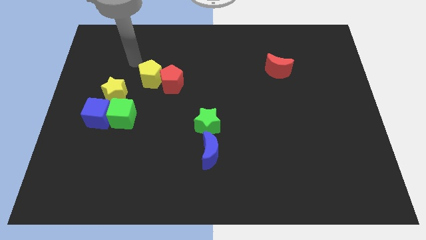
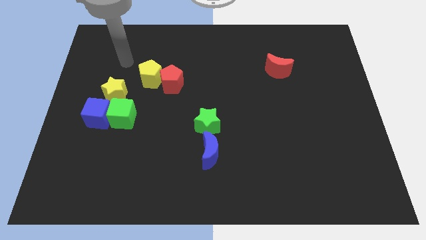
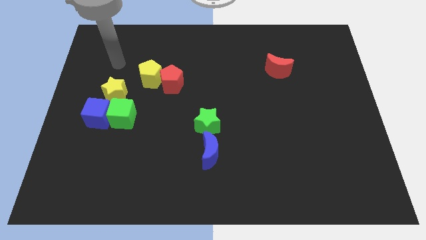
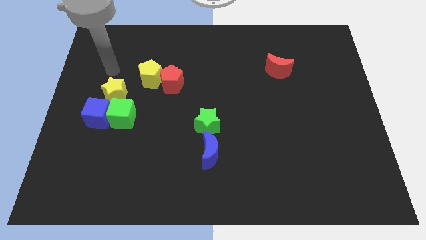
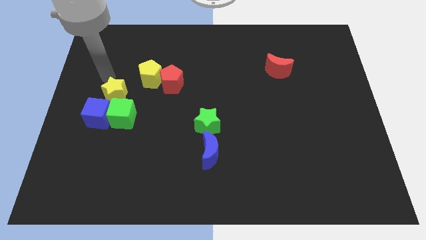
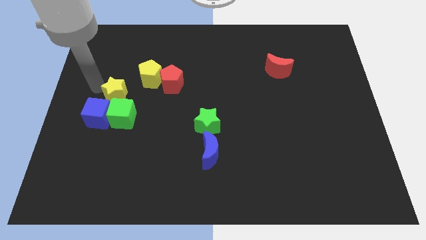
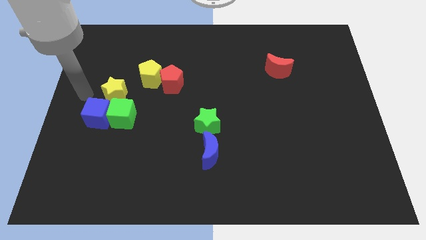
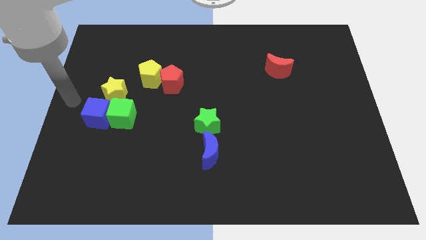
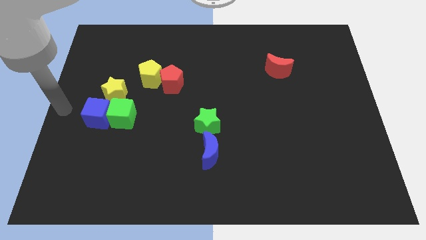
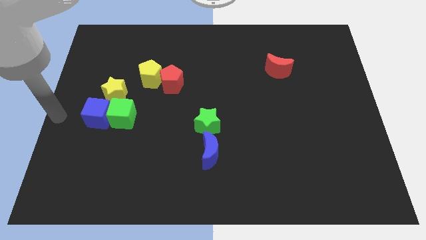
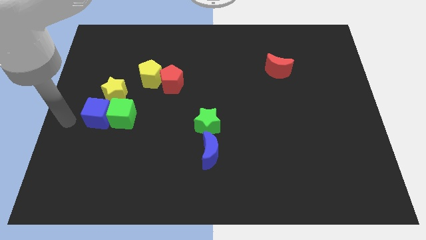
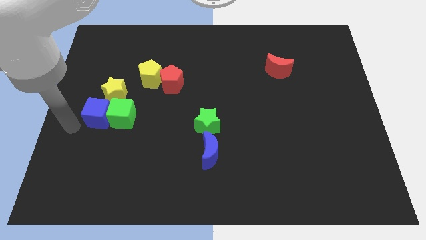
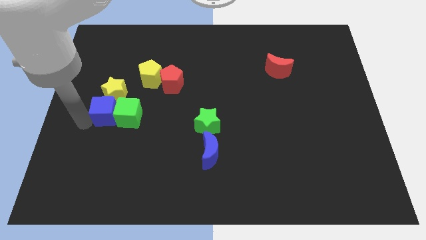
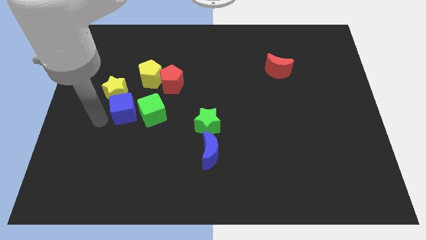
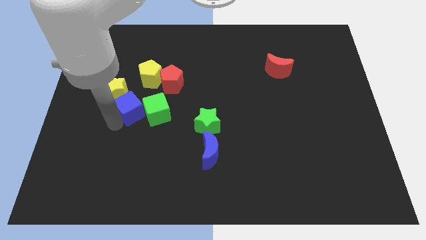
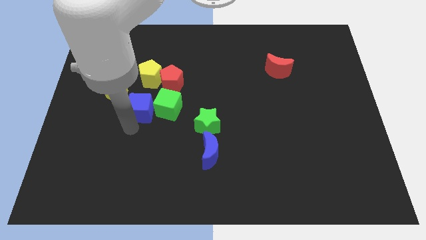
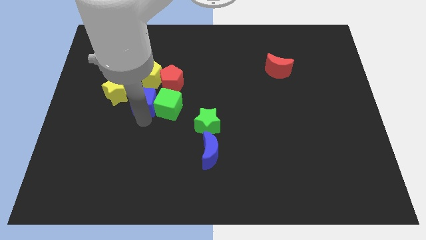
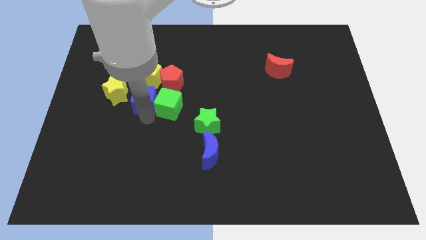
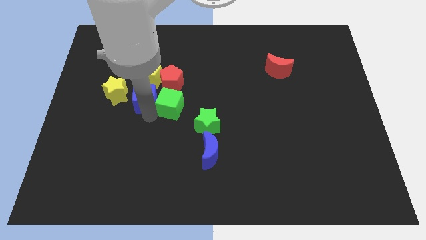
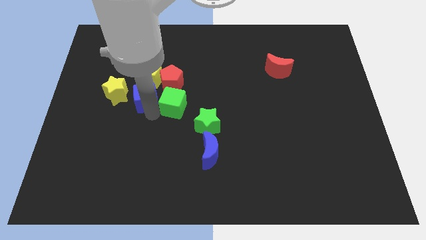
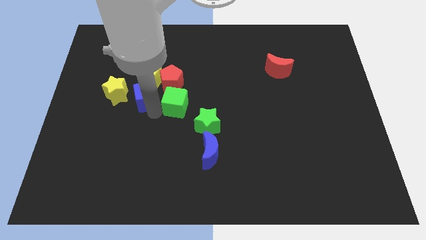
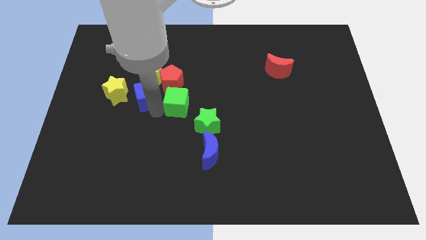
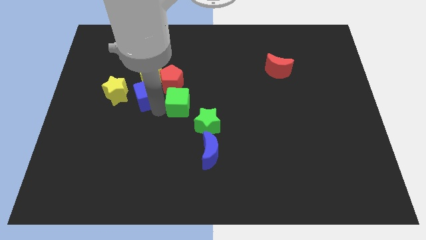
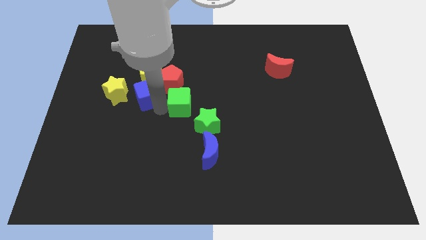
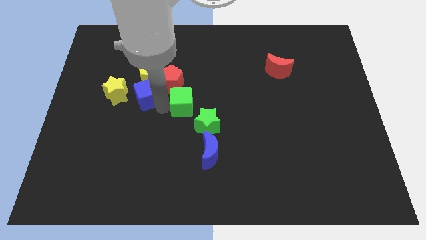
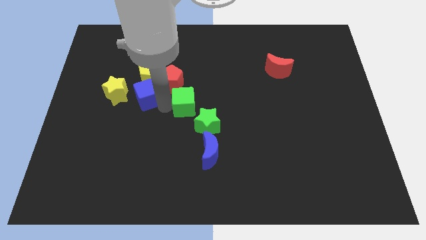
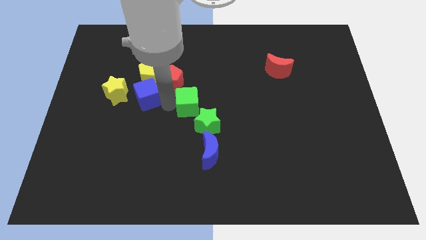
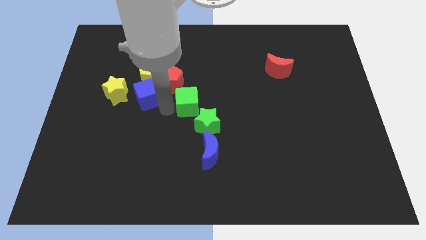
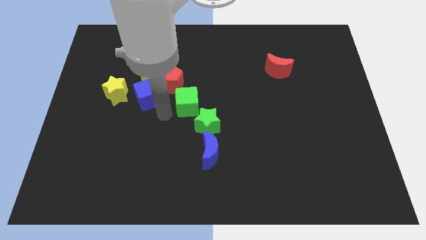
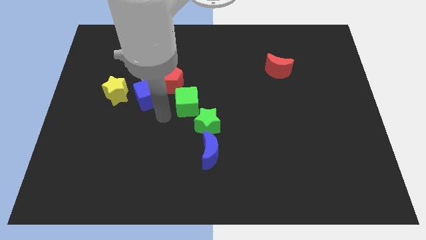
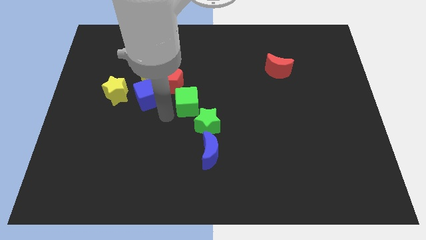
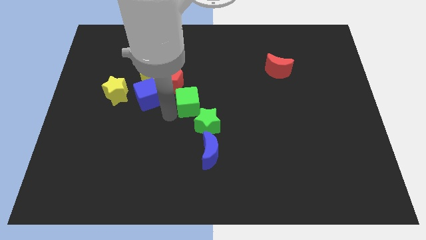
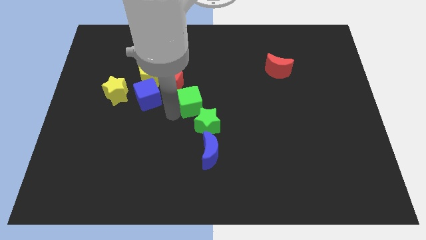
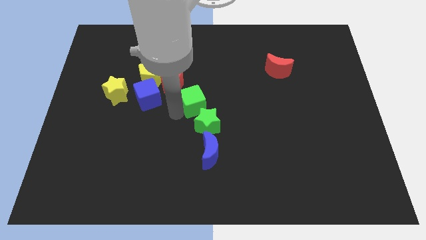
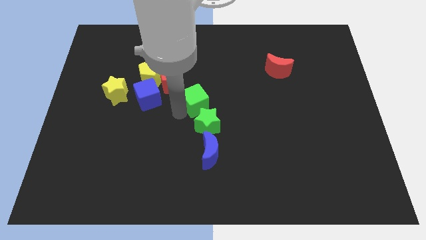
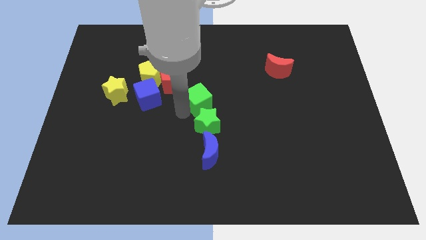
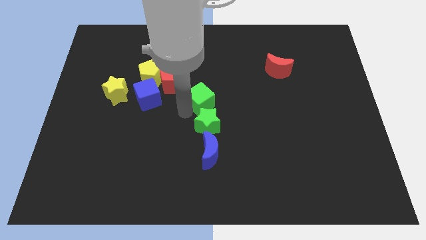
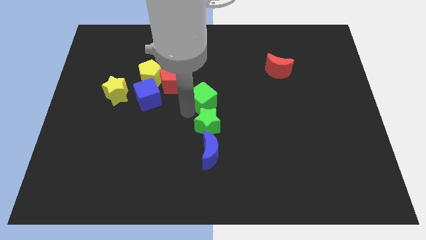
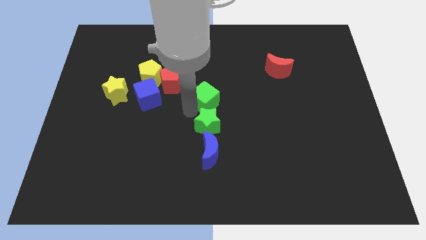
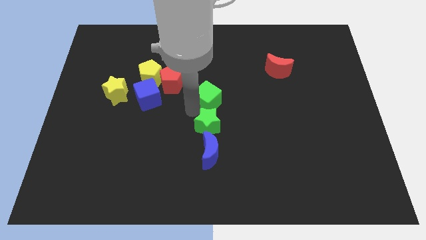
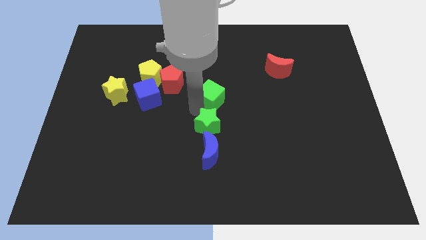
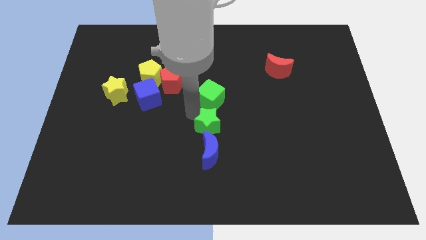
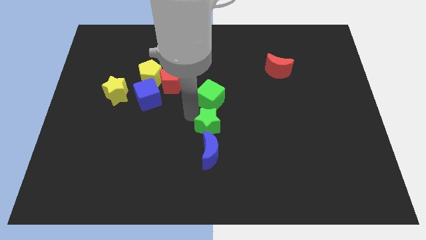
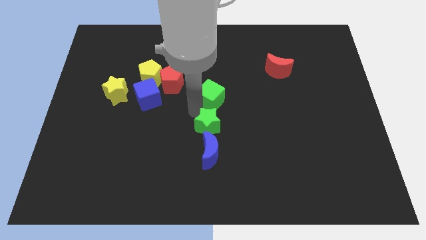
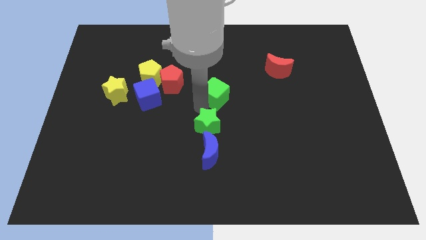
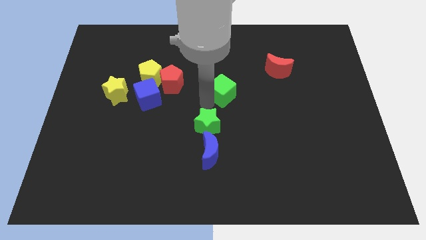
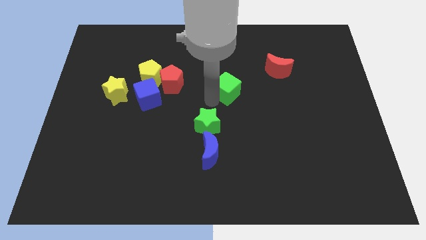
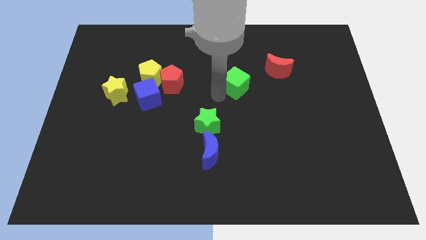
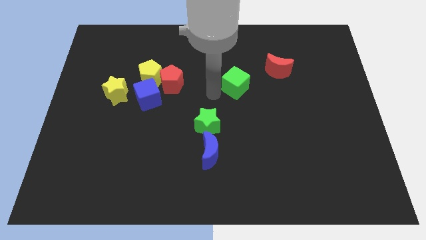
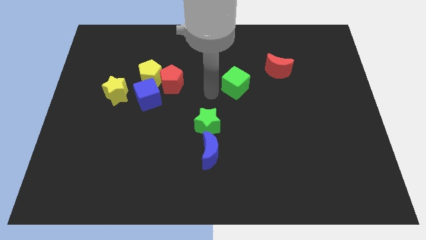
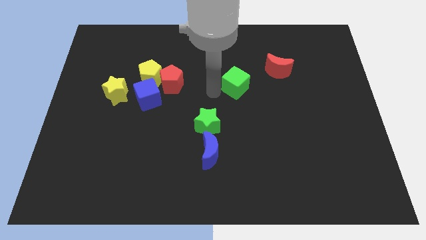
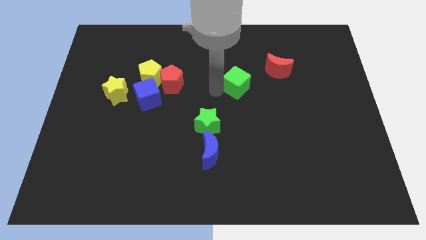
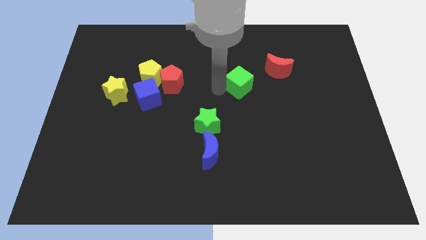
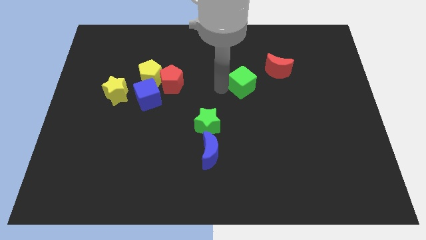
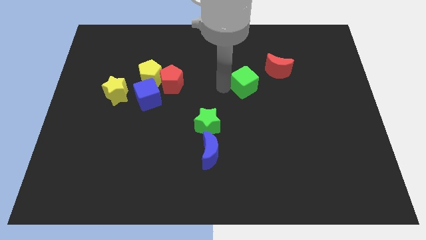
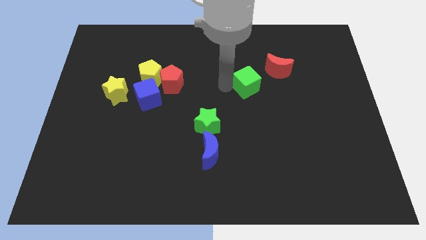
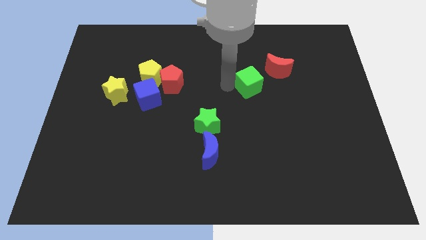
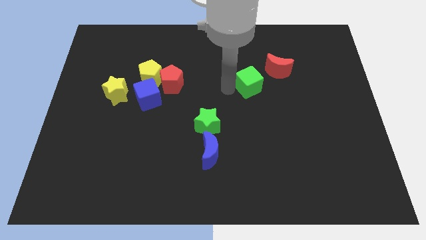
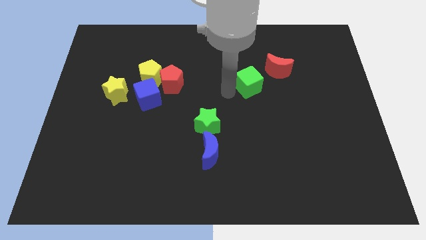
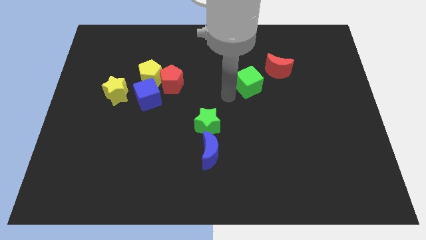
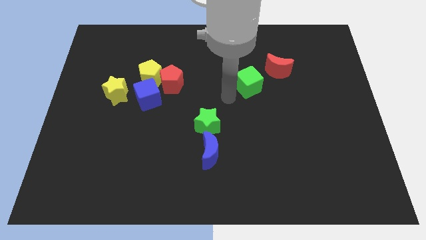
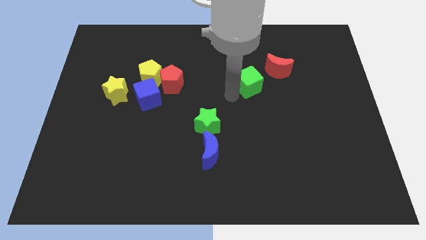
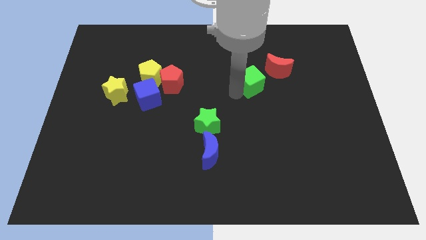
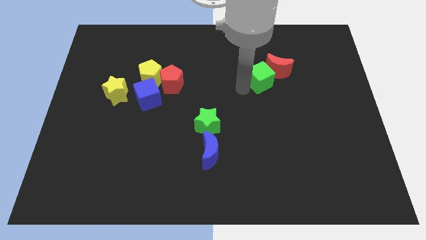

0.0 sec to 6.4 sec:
move the green cube next to the red moon

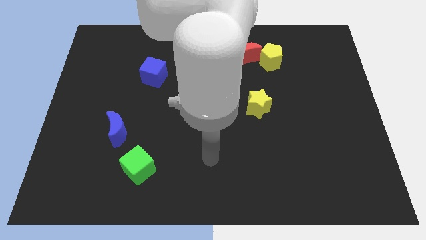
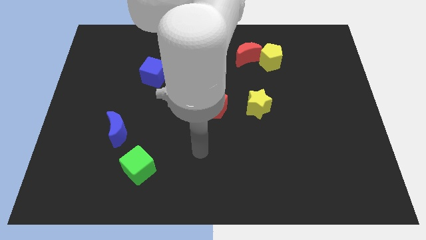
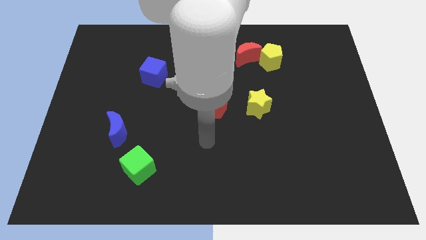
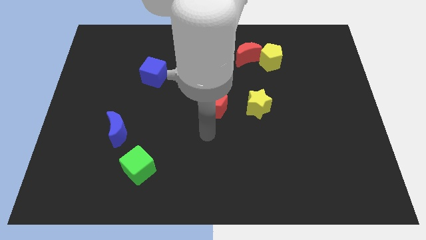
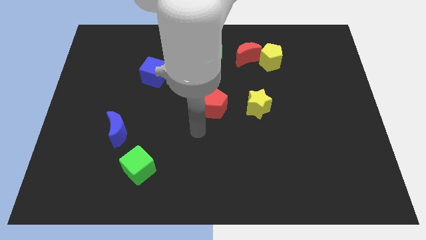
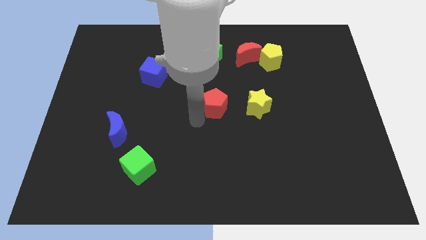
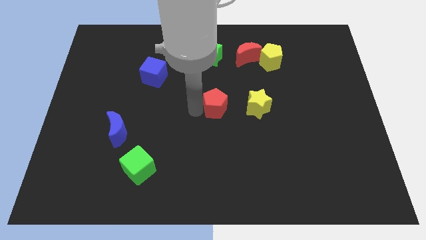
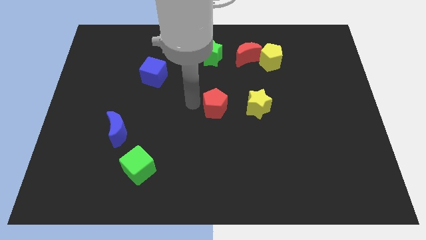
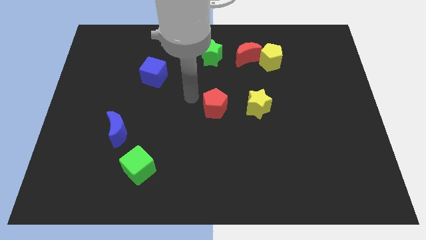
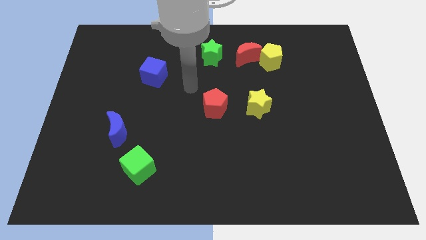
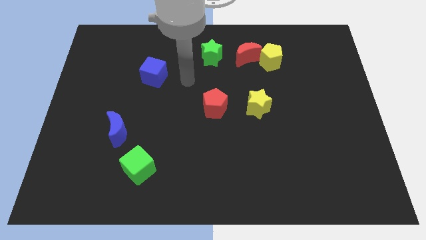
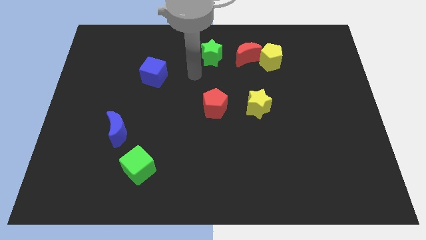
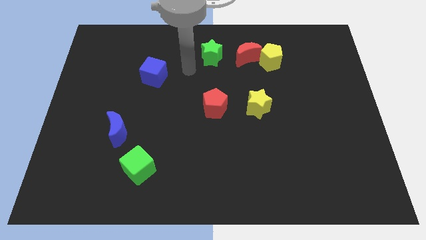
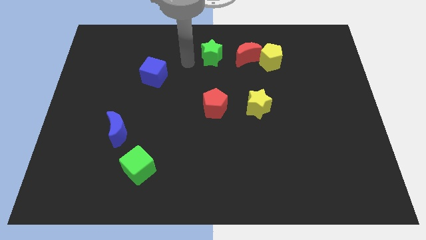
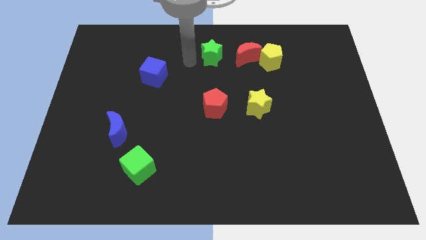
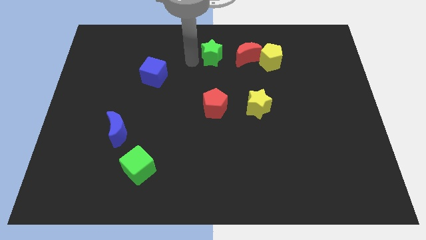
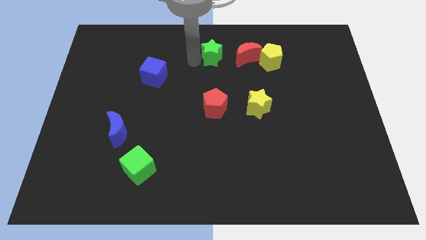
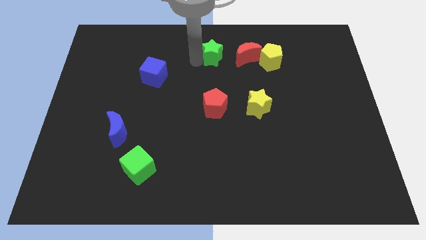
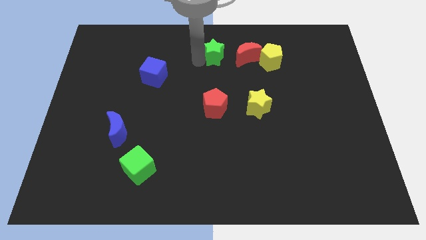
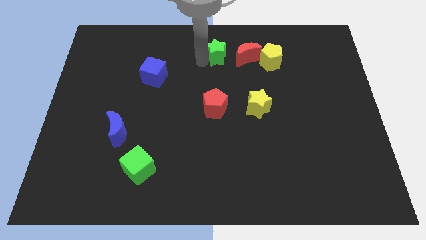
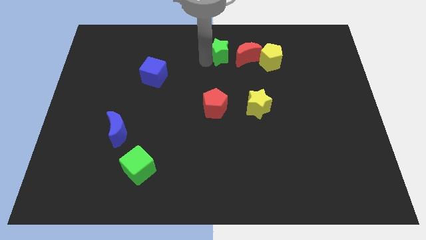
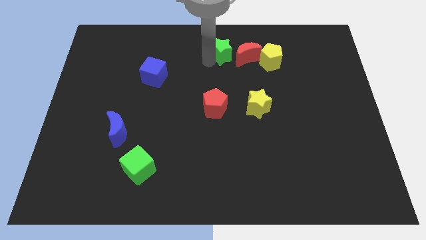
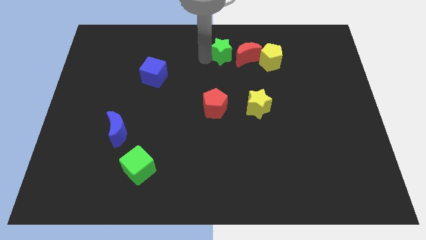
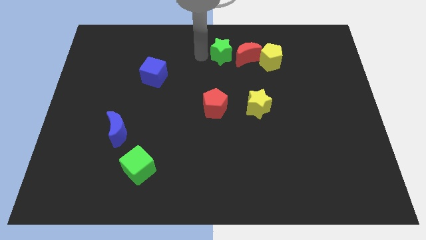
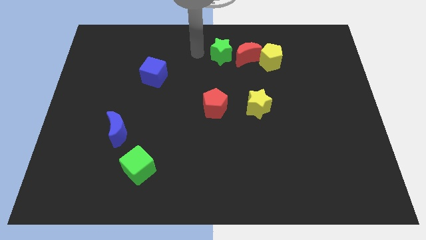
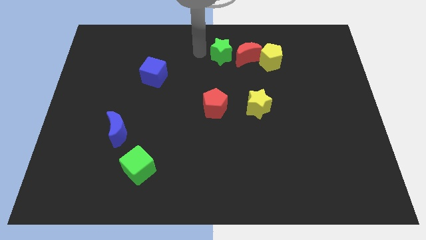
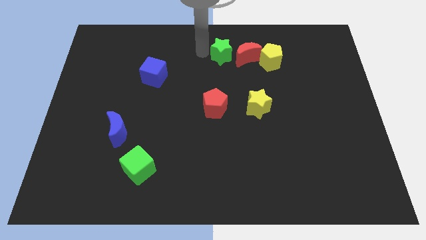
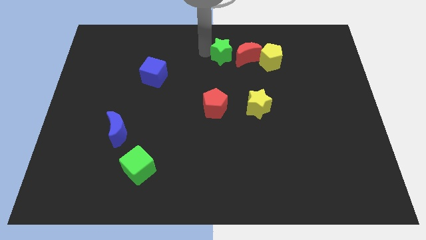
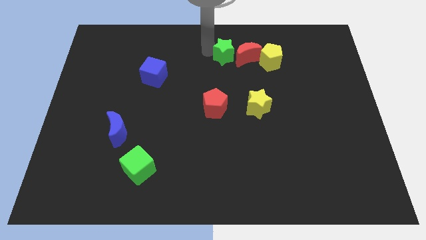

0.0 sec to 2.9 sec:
slide the green star to the red moon
